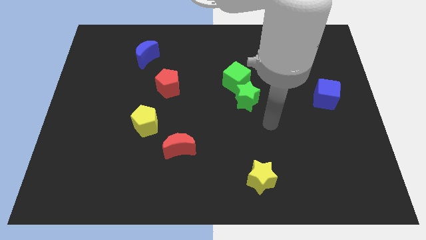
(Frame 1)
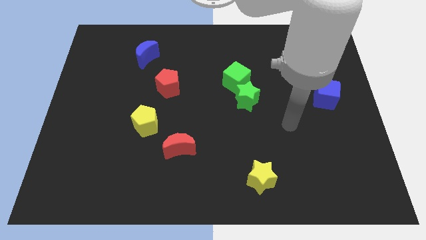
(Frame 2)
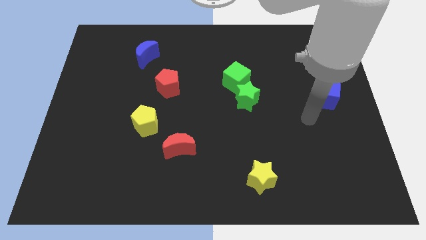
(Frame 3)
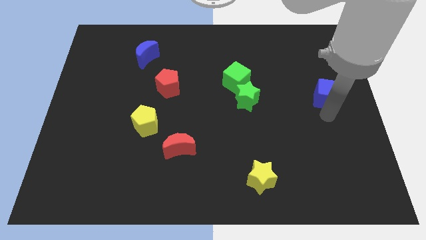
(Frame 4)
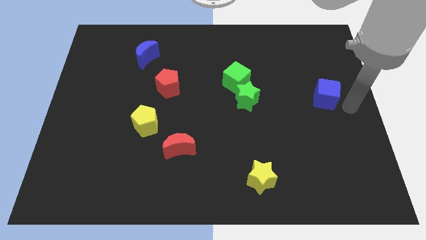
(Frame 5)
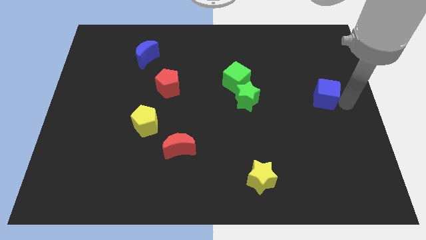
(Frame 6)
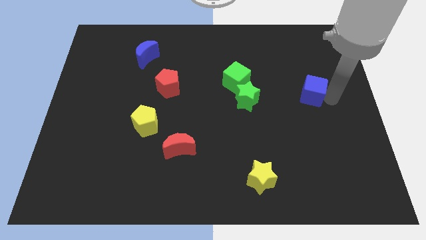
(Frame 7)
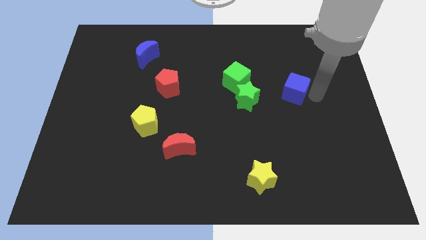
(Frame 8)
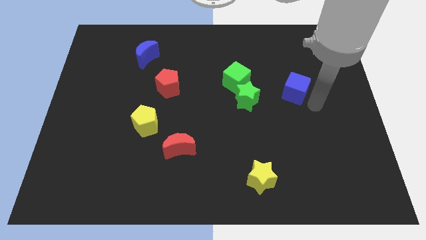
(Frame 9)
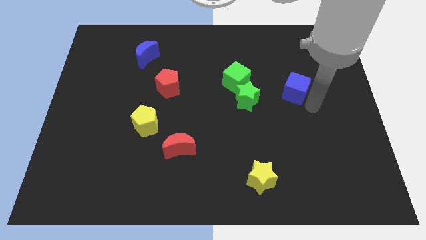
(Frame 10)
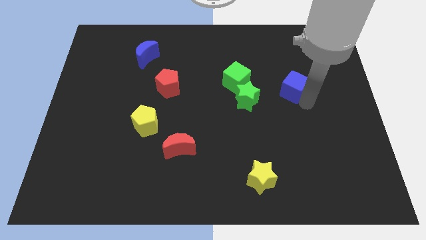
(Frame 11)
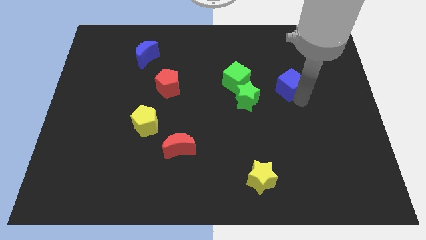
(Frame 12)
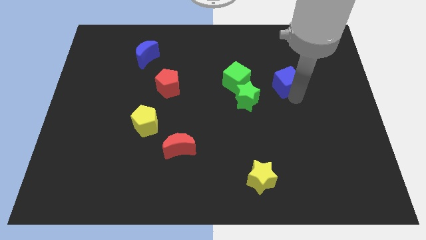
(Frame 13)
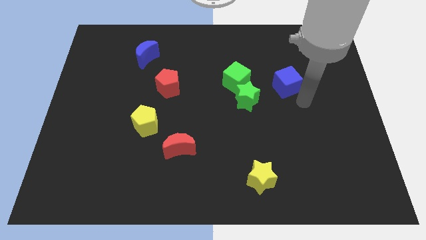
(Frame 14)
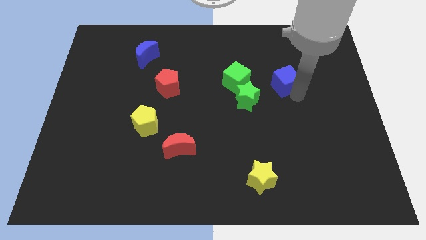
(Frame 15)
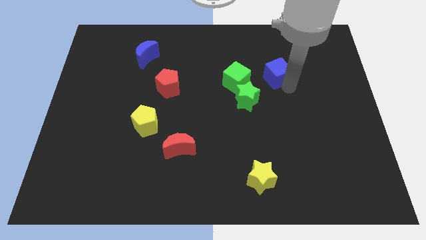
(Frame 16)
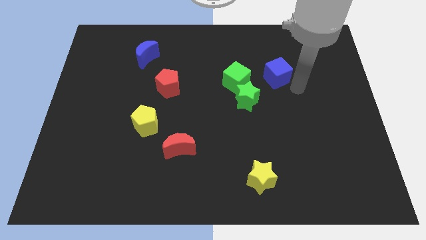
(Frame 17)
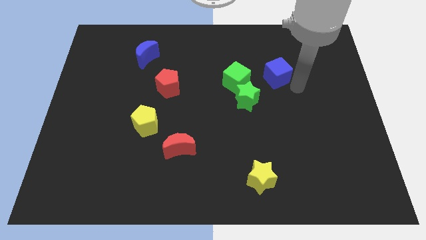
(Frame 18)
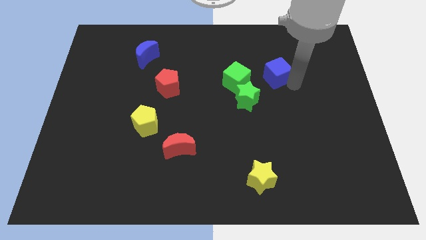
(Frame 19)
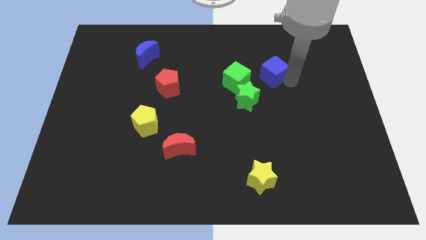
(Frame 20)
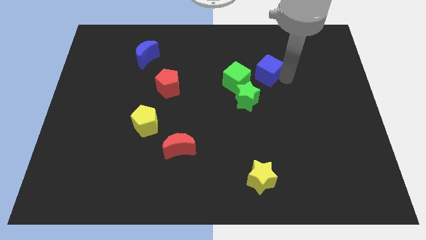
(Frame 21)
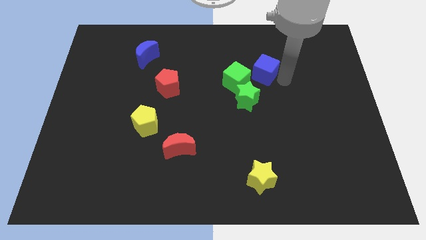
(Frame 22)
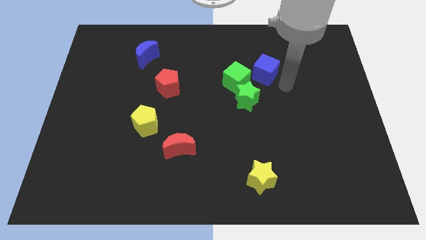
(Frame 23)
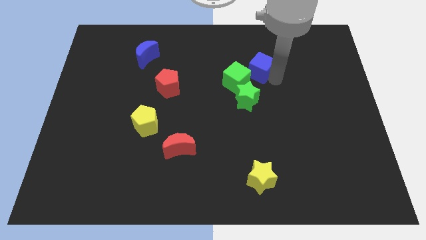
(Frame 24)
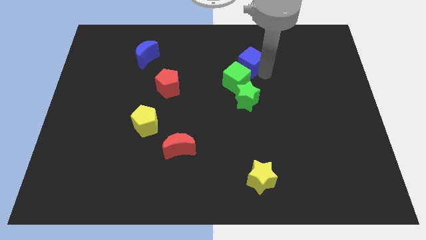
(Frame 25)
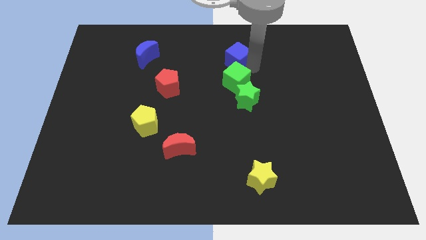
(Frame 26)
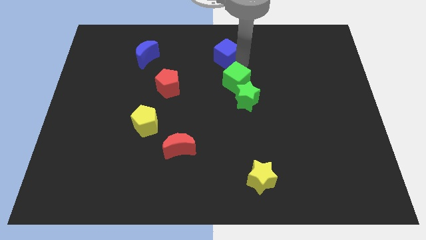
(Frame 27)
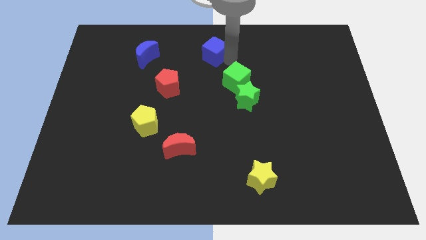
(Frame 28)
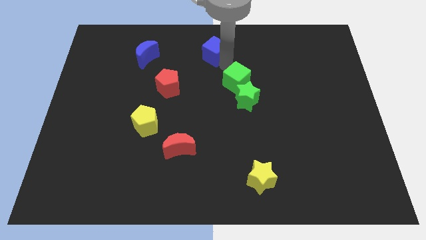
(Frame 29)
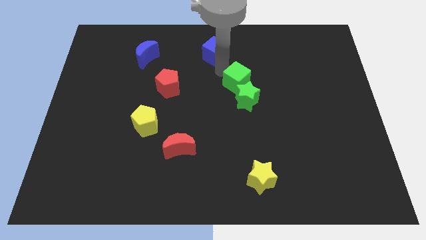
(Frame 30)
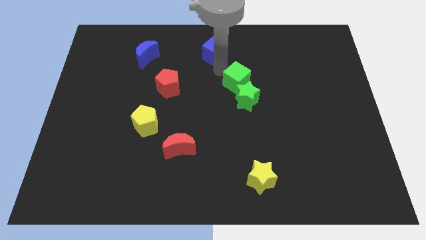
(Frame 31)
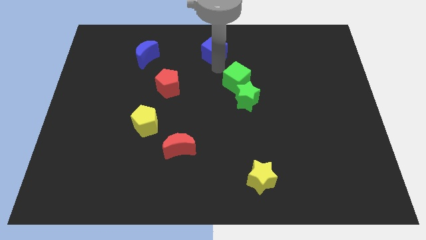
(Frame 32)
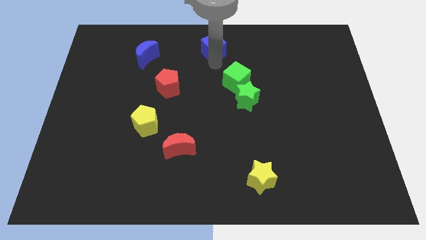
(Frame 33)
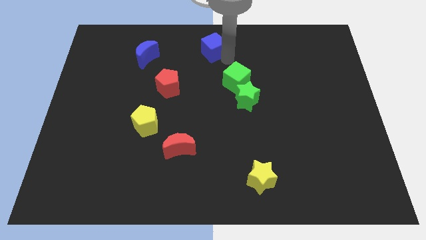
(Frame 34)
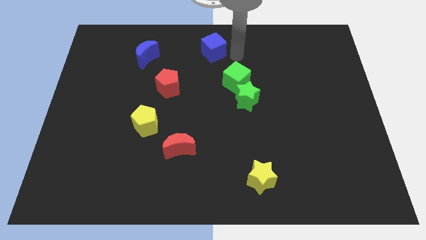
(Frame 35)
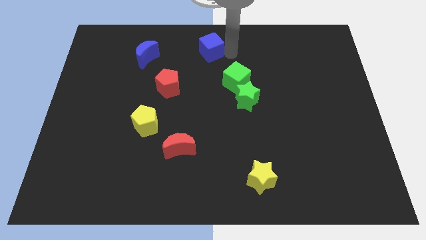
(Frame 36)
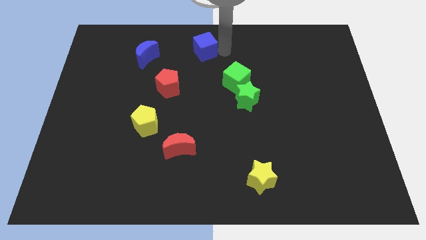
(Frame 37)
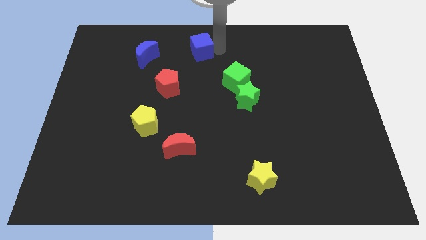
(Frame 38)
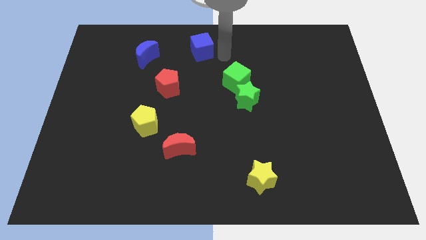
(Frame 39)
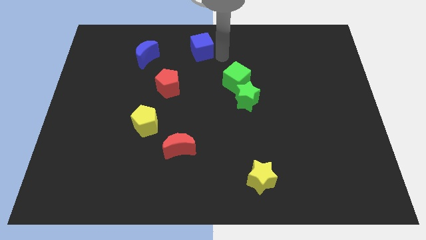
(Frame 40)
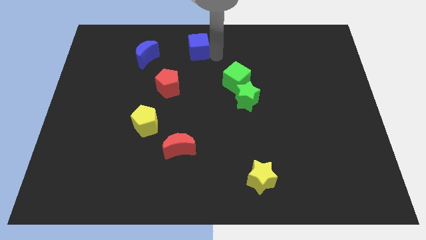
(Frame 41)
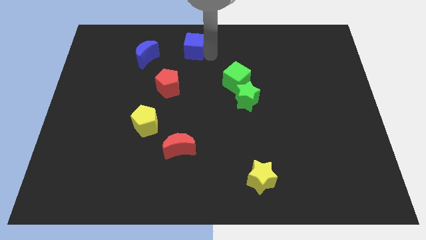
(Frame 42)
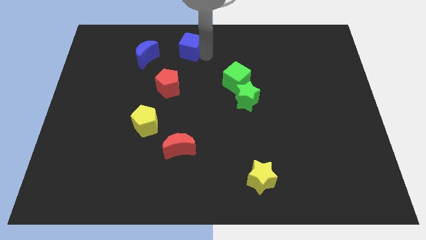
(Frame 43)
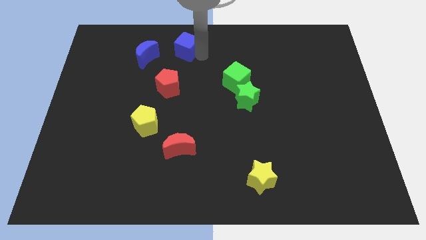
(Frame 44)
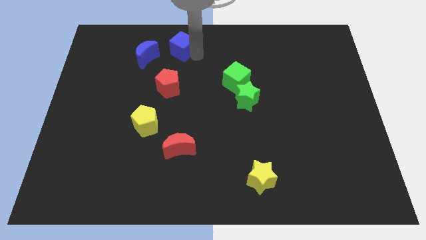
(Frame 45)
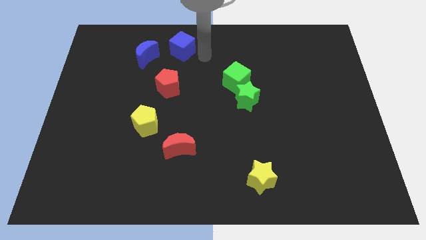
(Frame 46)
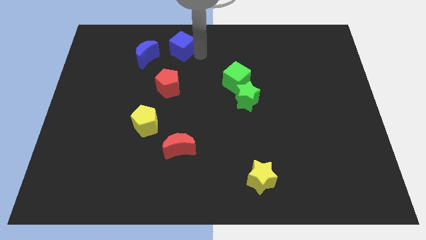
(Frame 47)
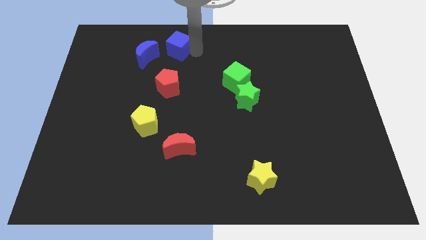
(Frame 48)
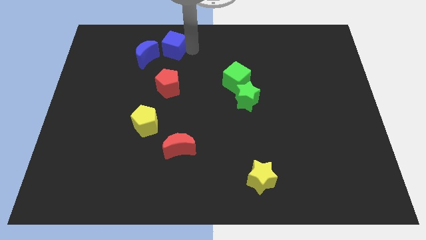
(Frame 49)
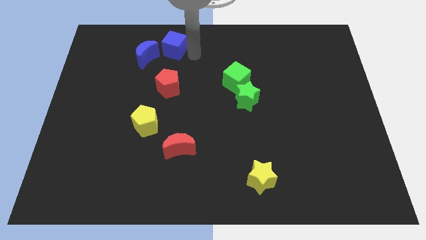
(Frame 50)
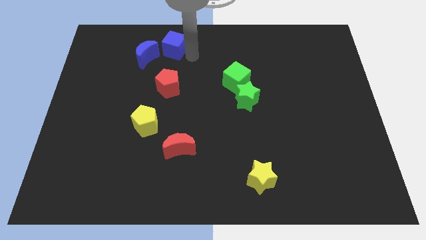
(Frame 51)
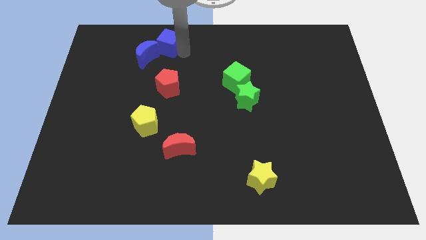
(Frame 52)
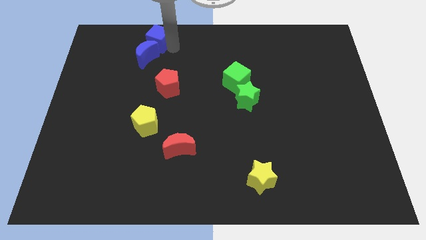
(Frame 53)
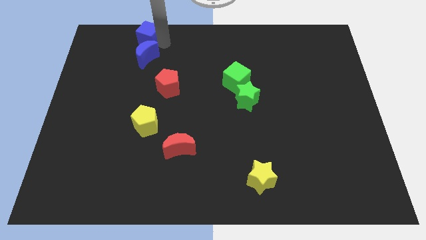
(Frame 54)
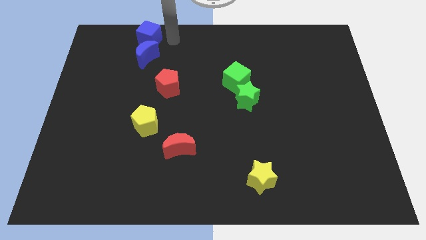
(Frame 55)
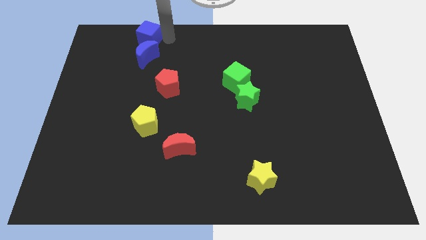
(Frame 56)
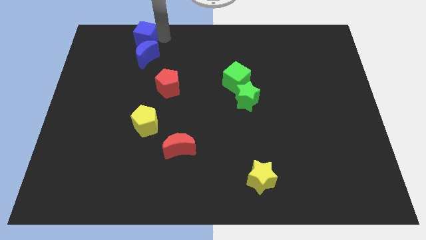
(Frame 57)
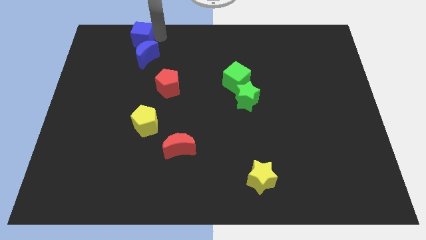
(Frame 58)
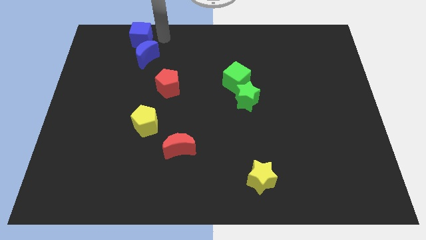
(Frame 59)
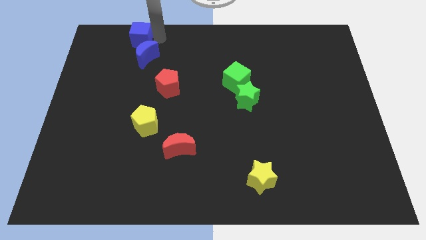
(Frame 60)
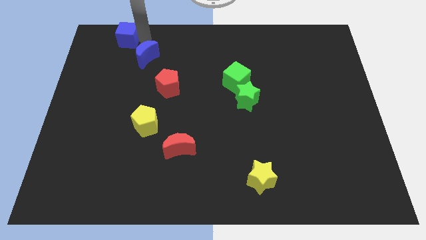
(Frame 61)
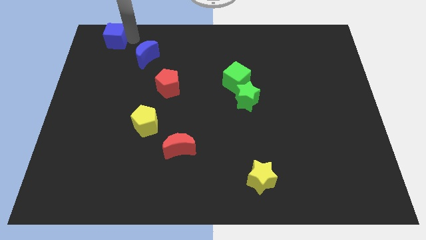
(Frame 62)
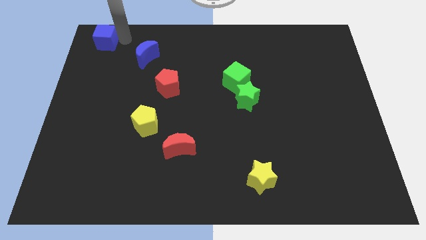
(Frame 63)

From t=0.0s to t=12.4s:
move the blue cube to the top left
